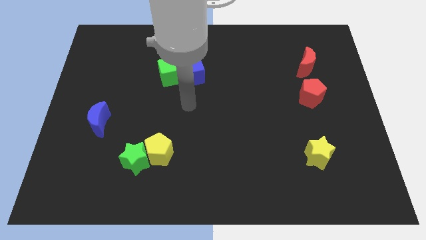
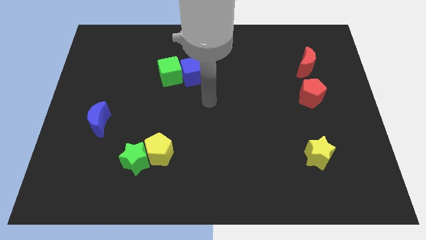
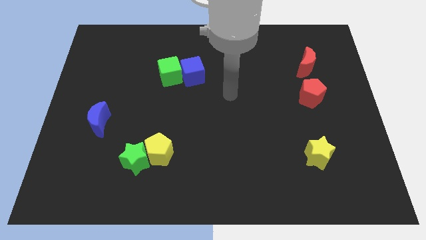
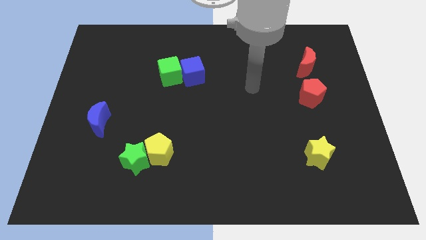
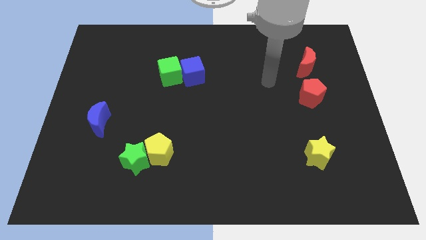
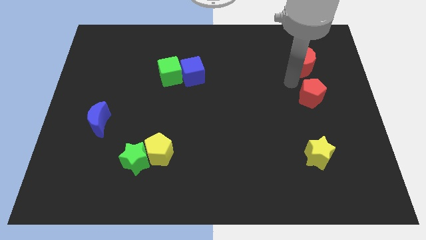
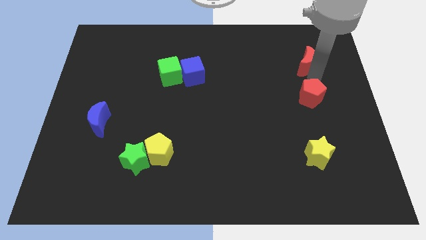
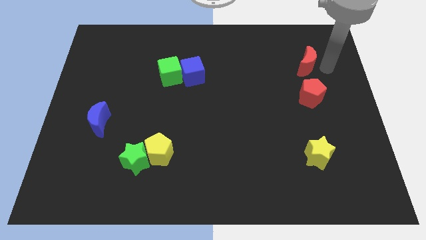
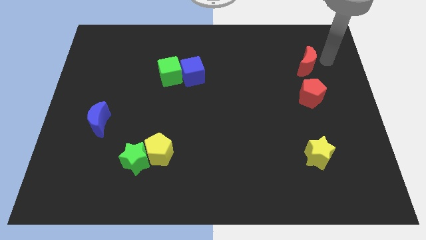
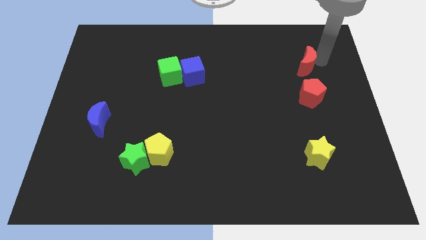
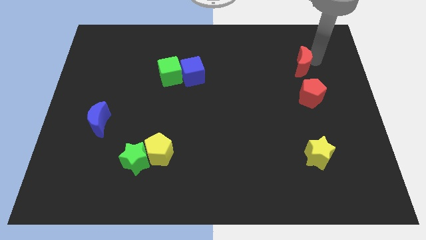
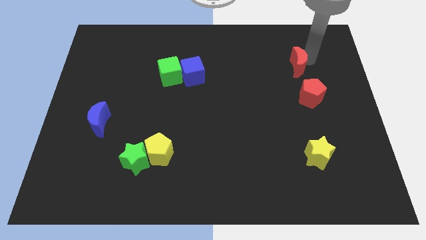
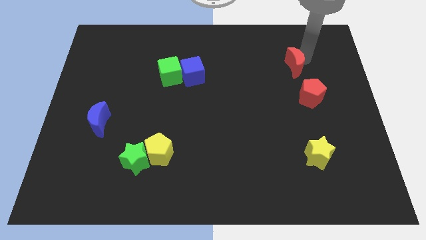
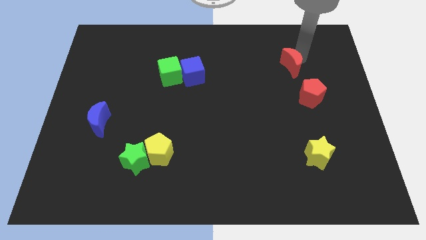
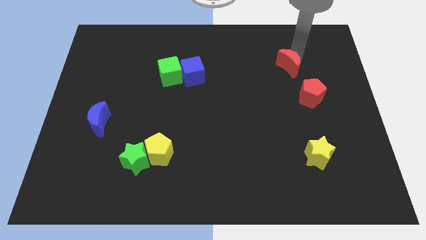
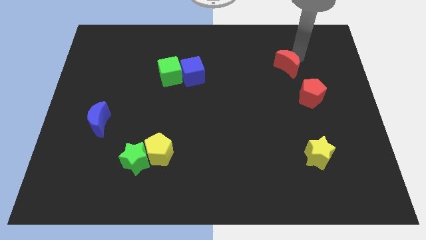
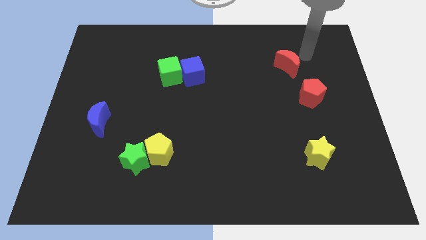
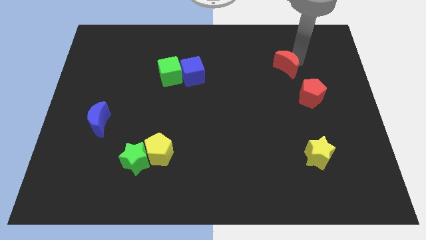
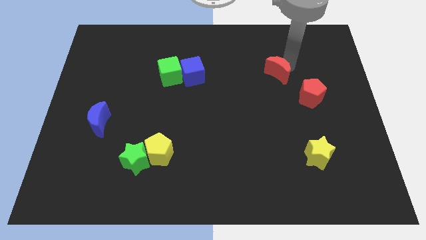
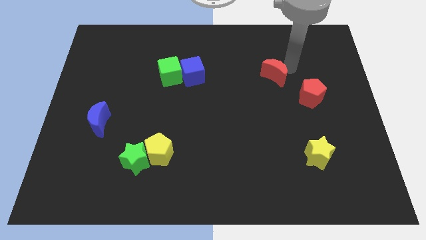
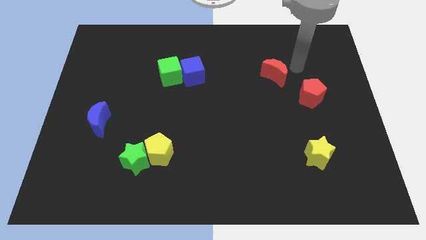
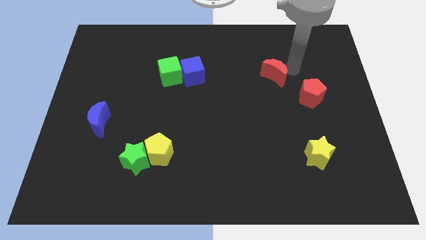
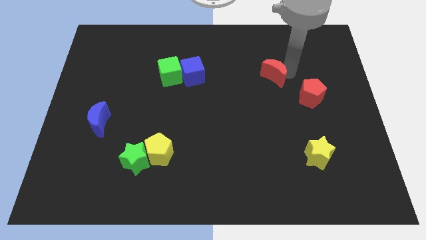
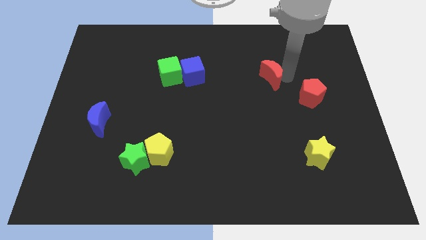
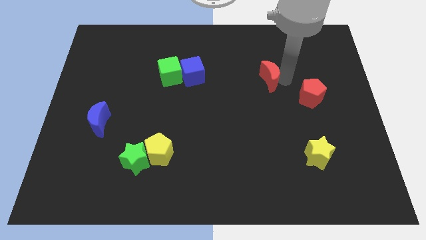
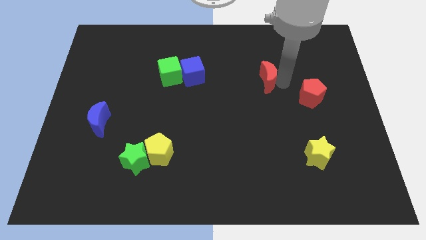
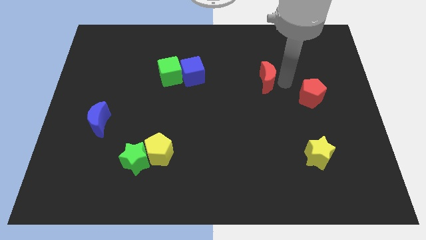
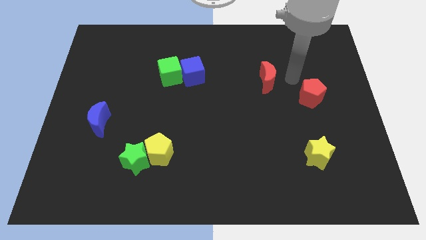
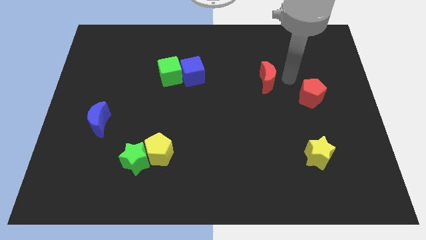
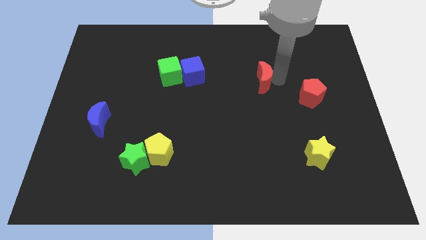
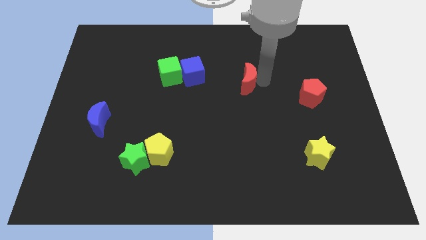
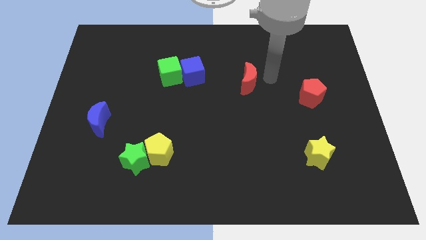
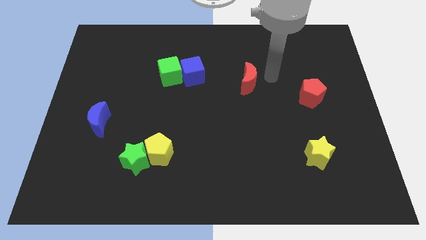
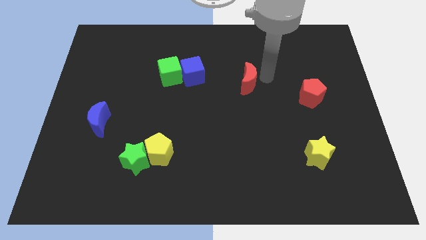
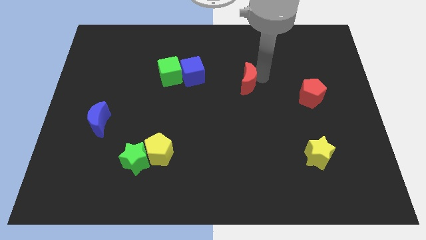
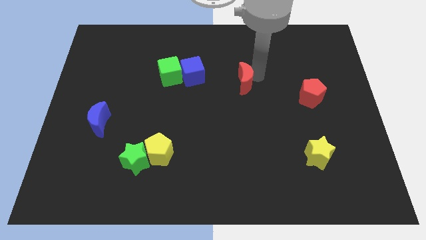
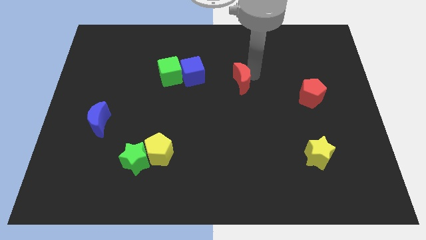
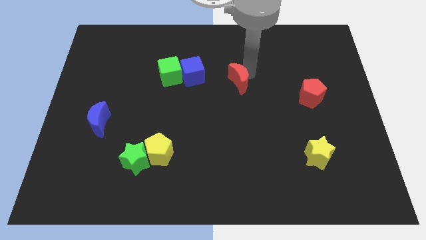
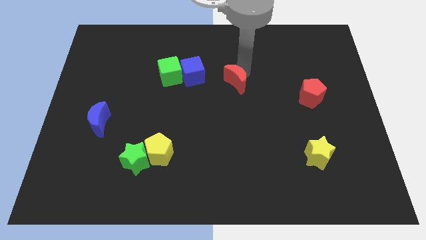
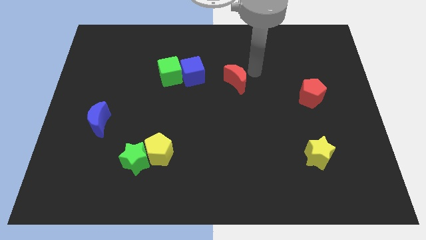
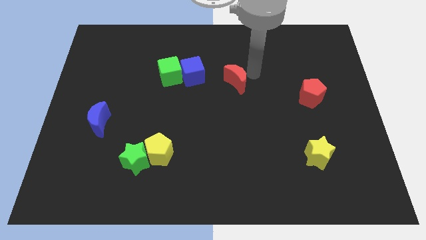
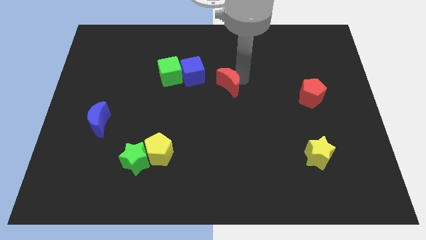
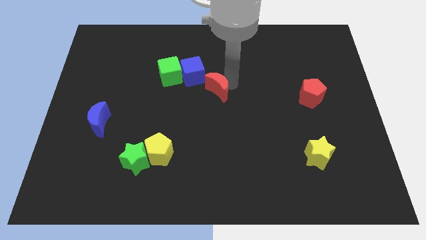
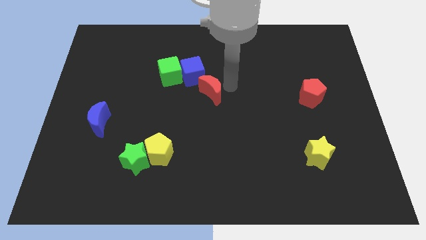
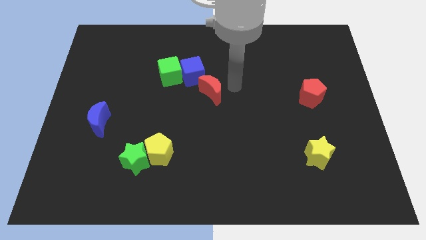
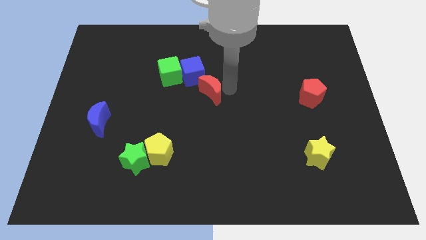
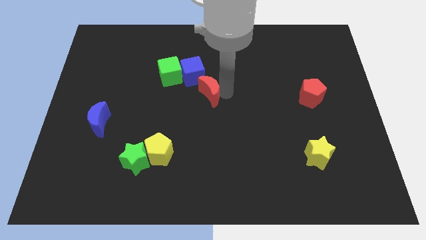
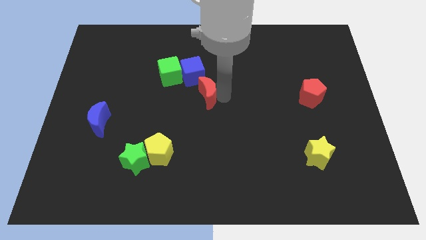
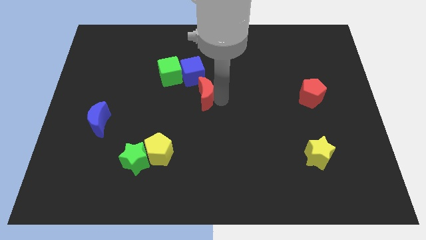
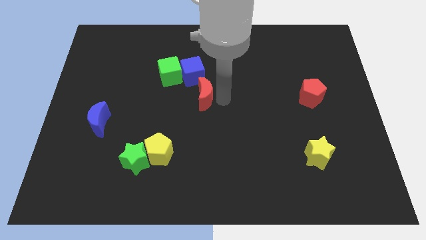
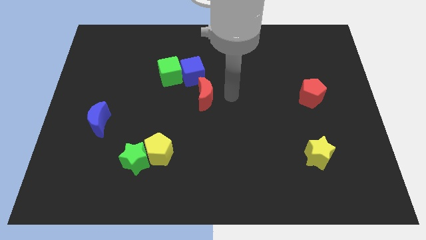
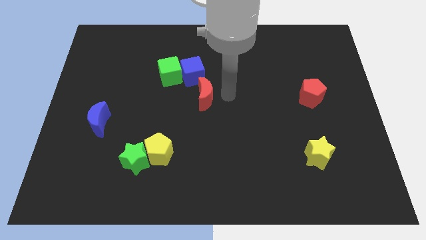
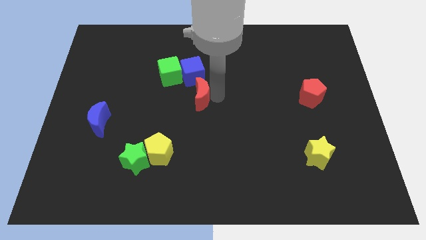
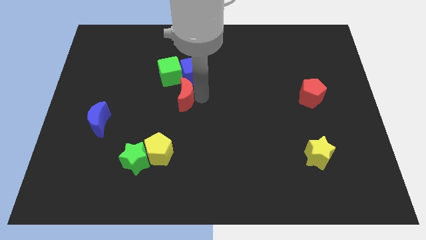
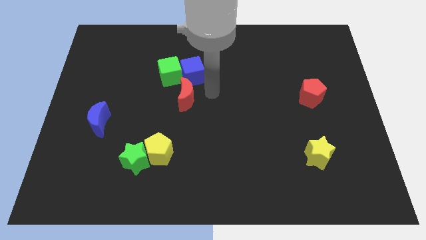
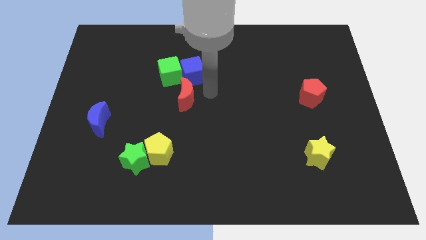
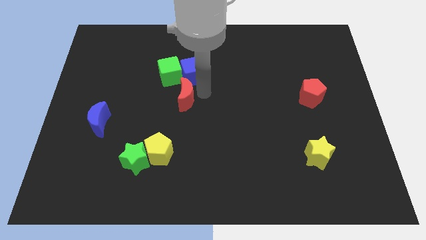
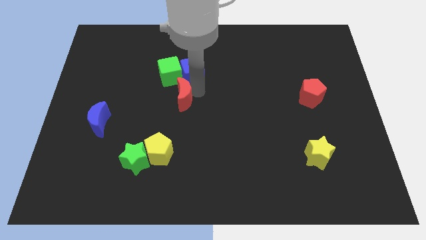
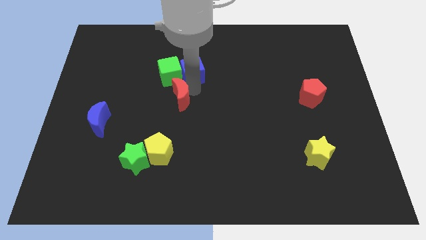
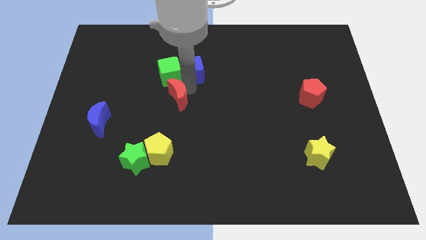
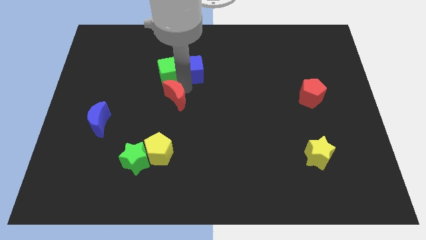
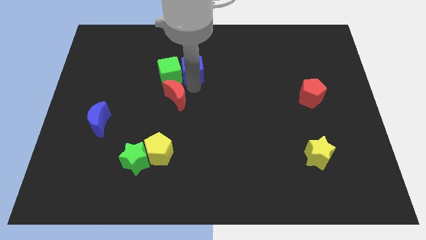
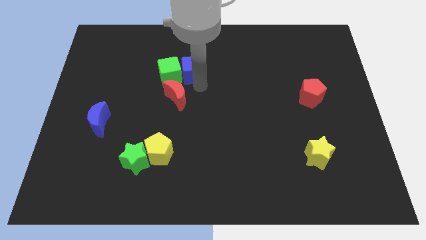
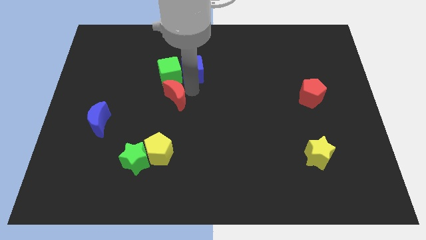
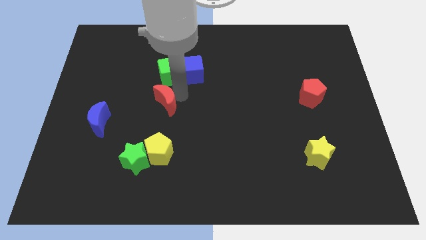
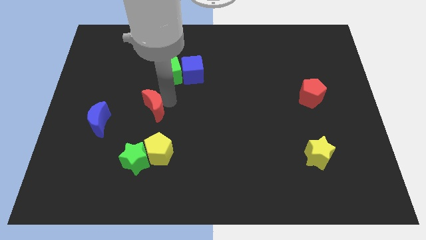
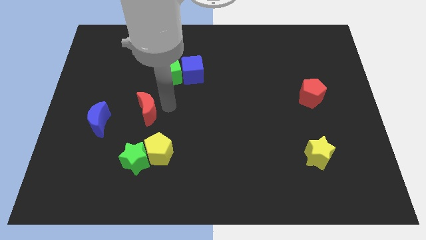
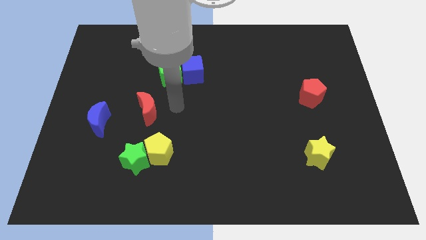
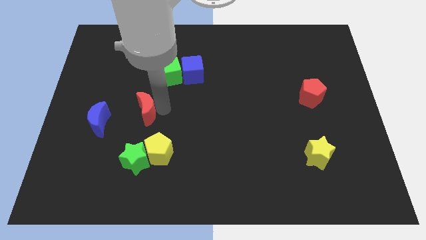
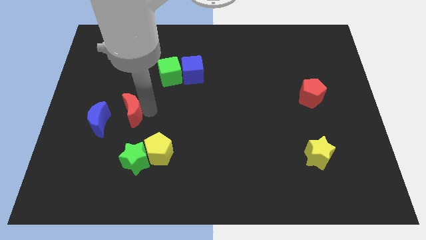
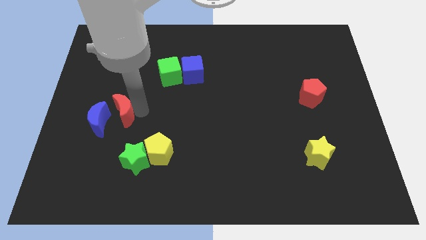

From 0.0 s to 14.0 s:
push the red moon to the blue moon
